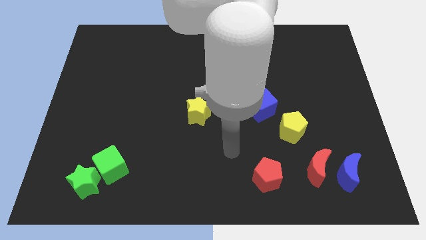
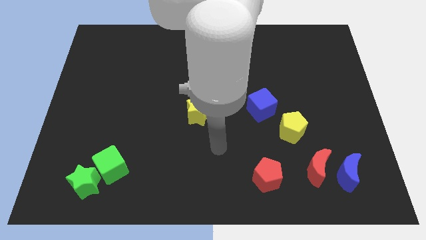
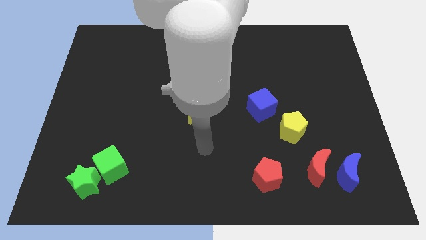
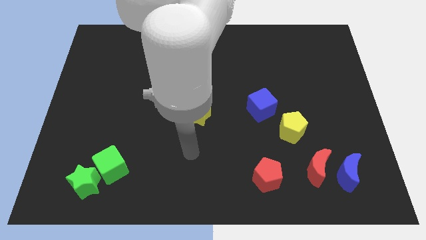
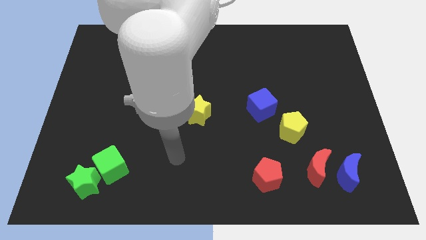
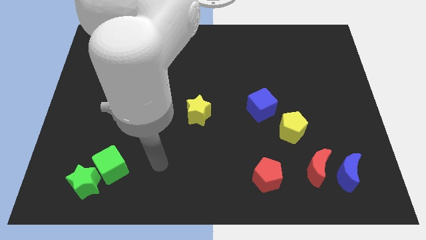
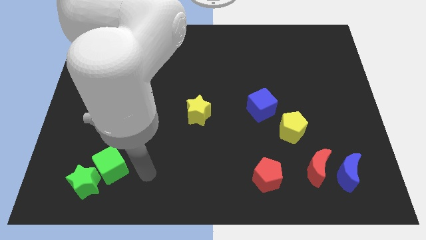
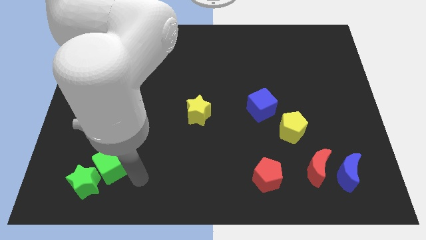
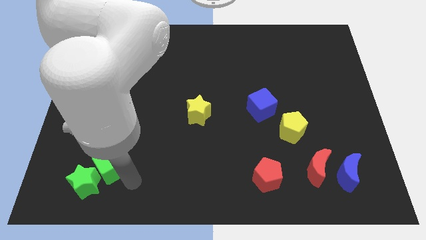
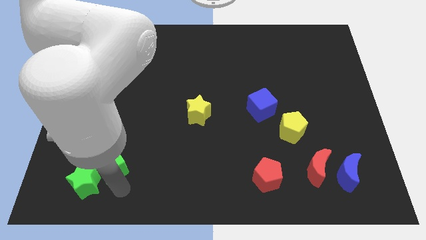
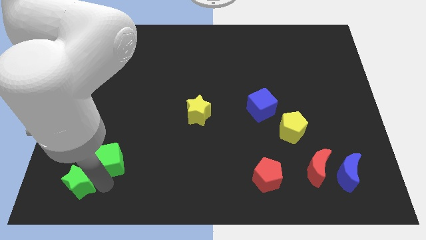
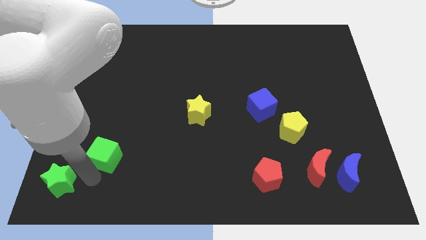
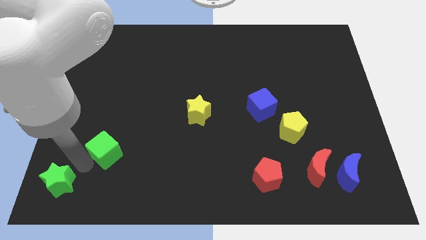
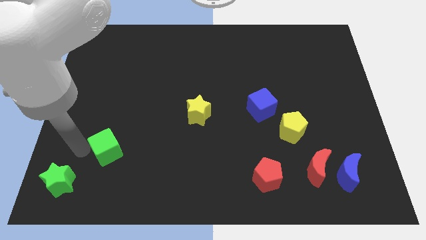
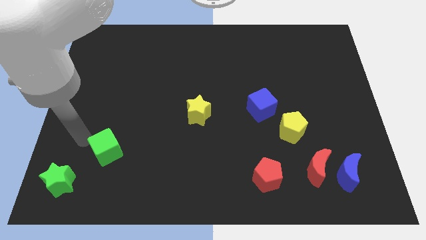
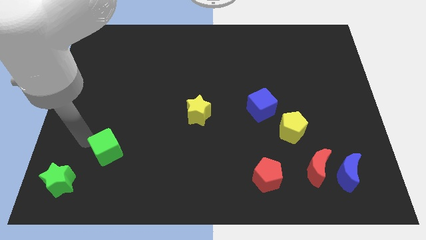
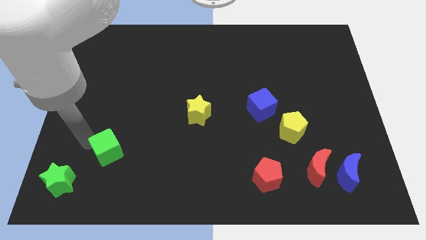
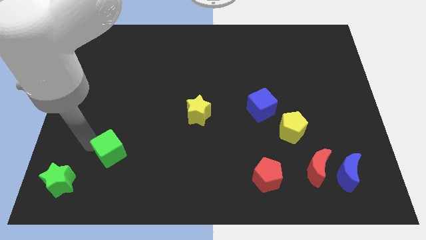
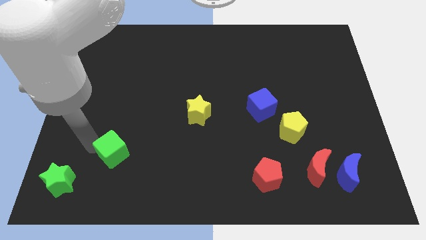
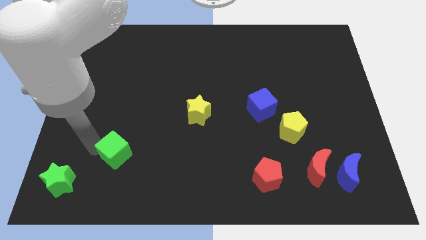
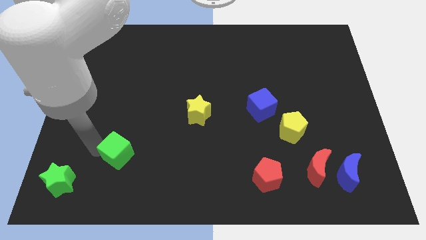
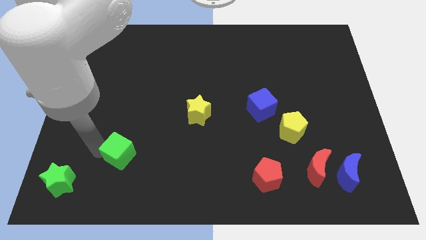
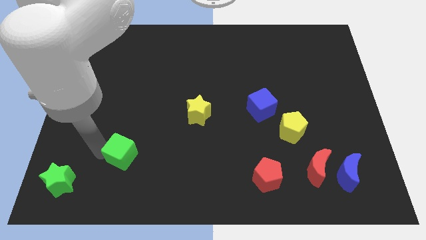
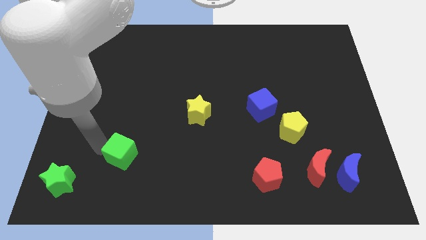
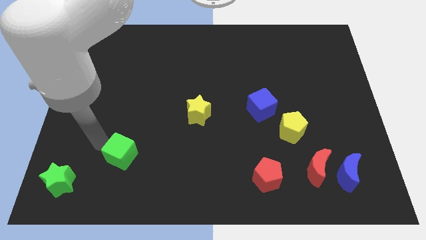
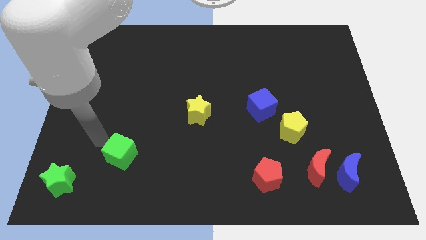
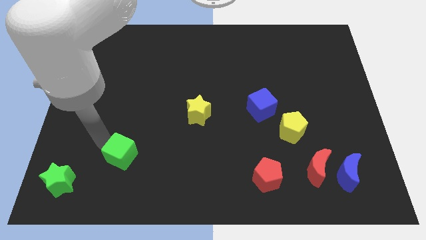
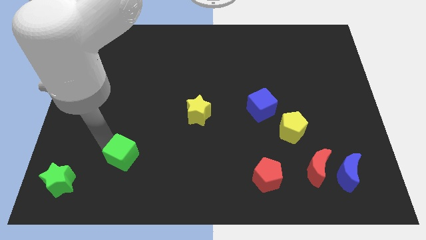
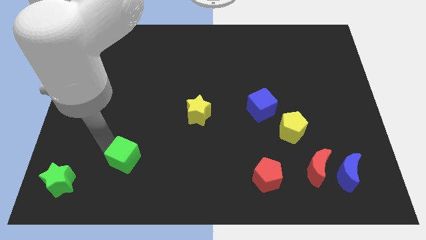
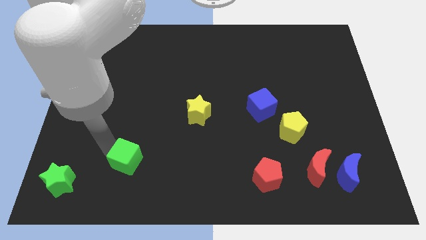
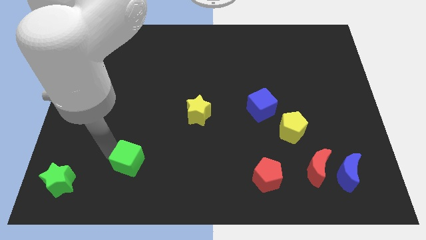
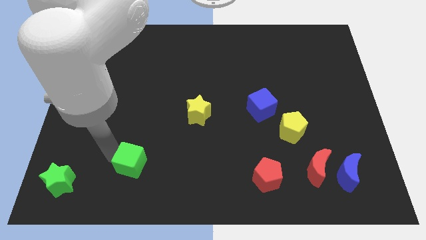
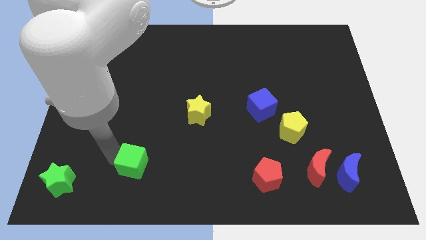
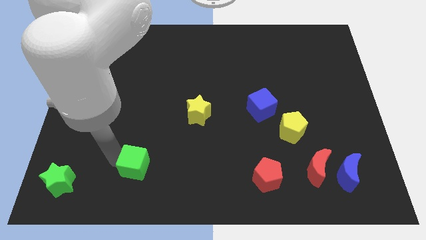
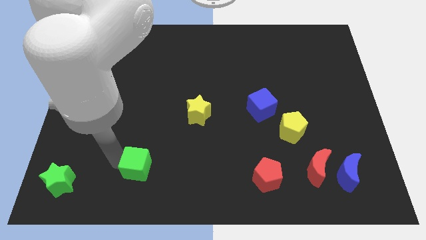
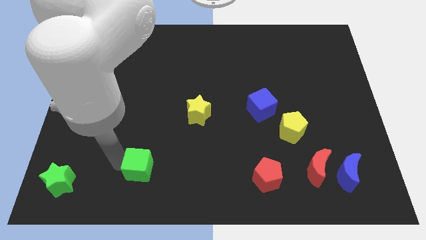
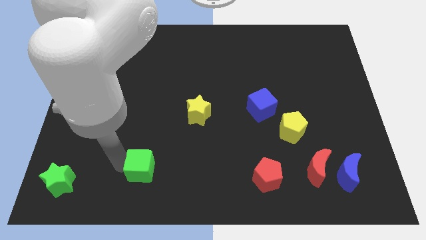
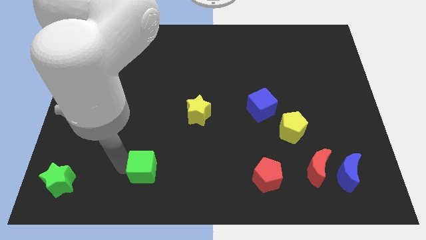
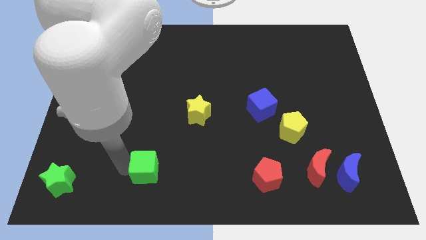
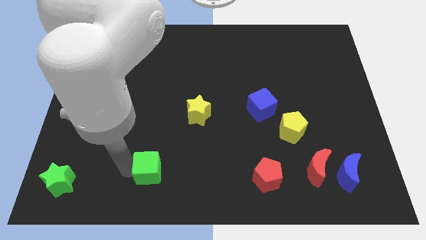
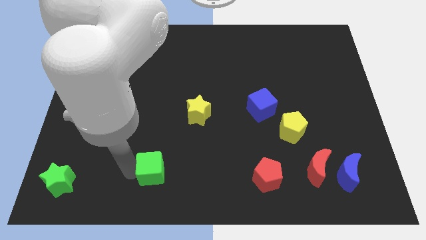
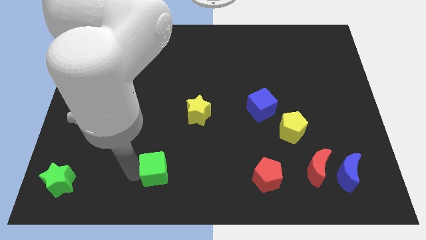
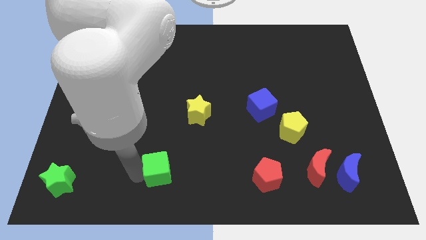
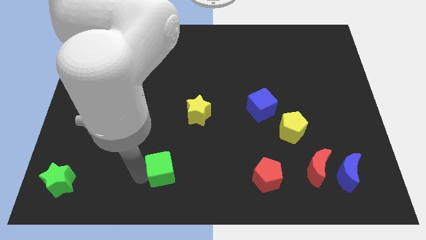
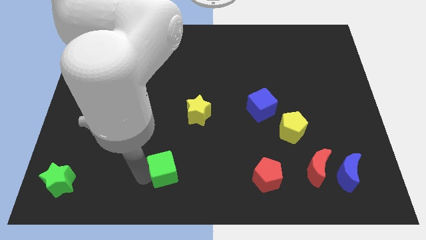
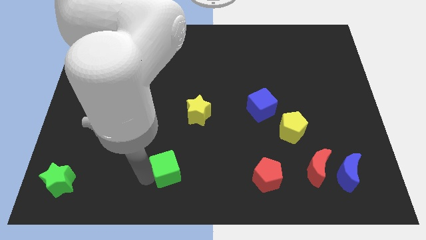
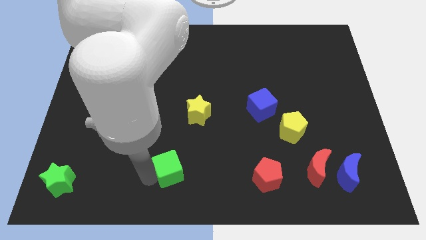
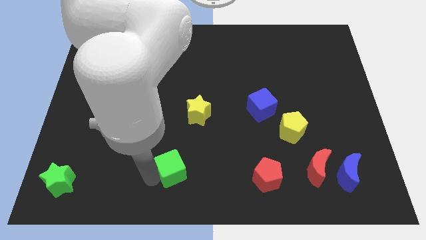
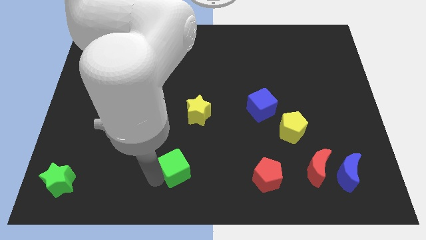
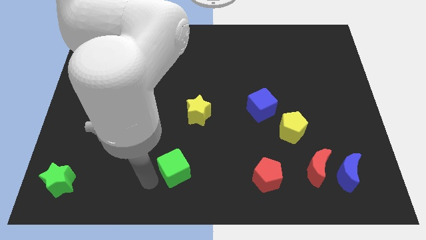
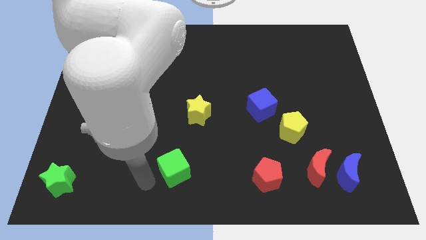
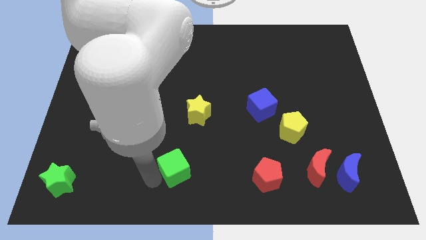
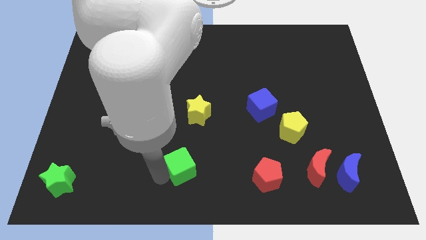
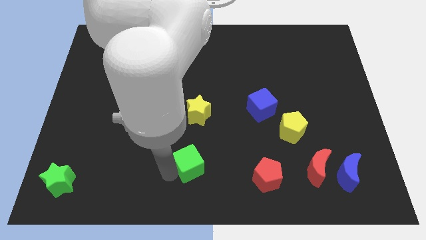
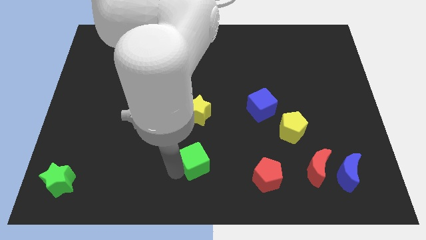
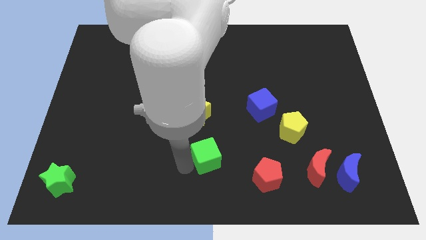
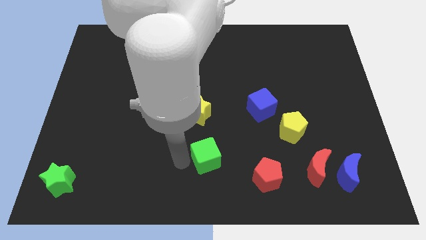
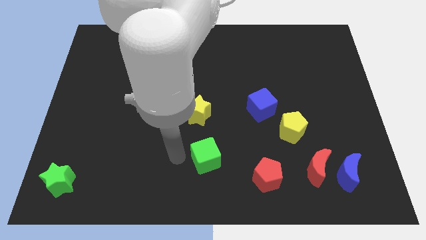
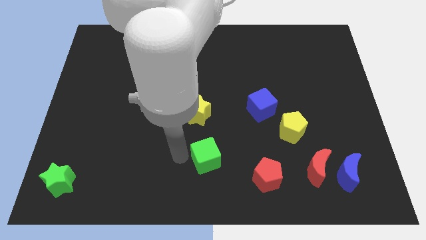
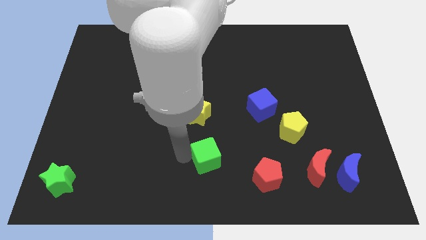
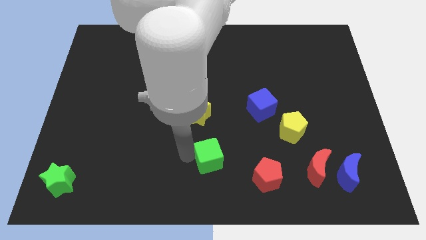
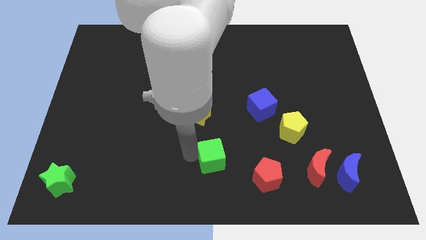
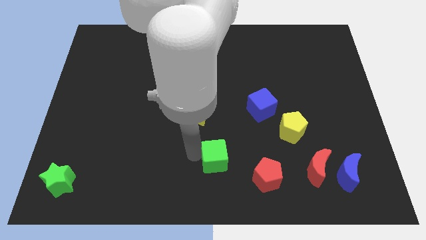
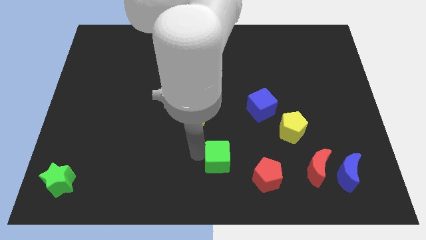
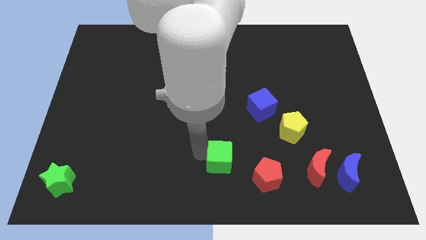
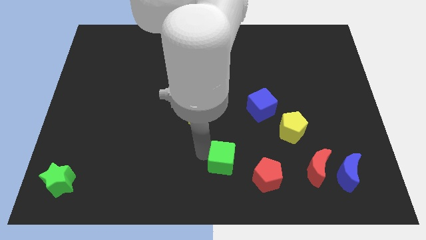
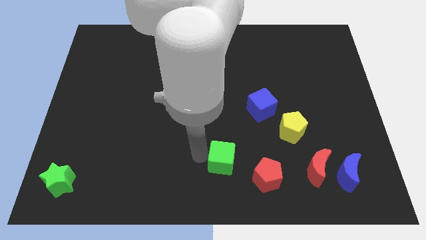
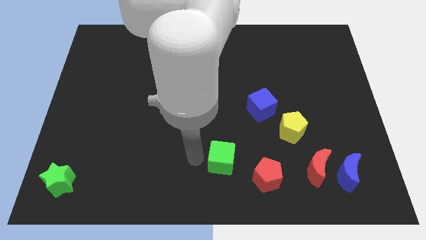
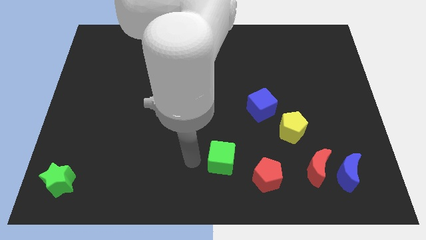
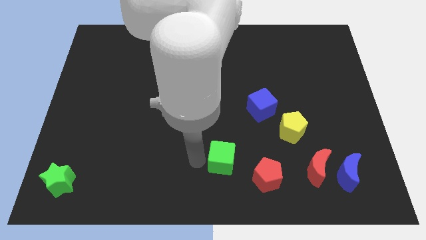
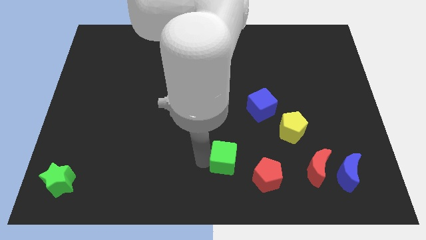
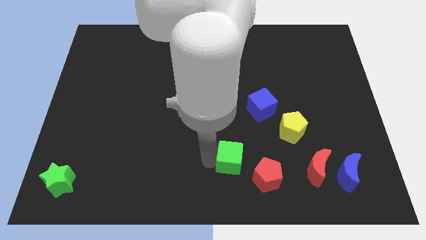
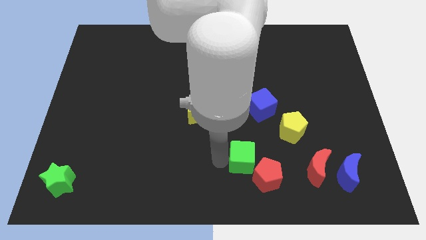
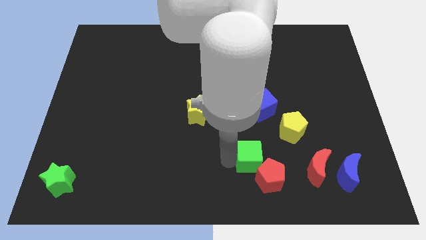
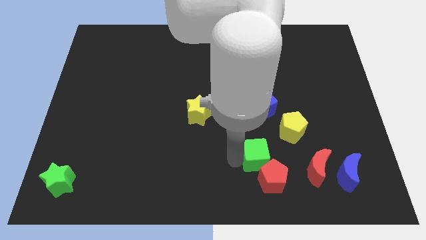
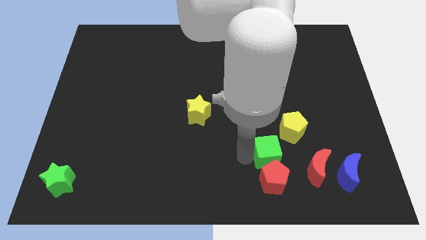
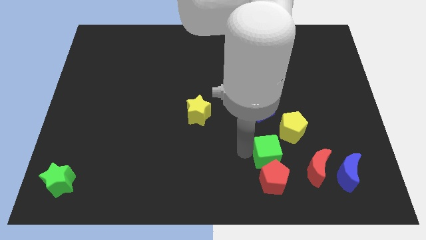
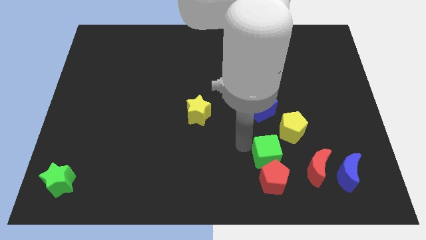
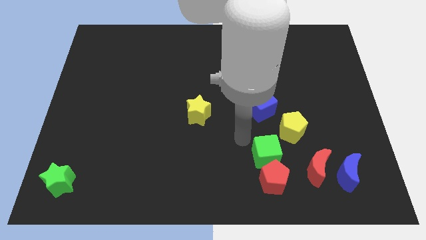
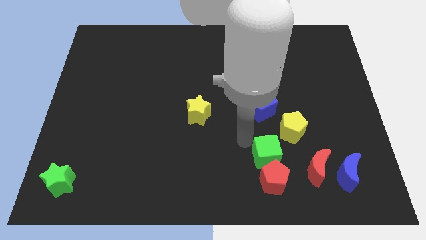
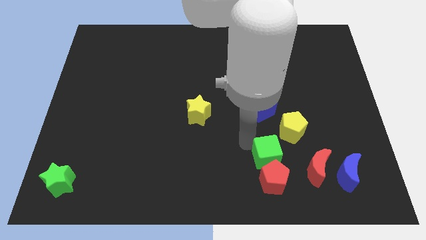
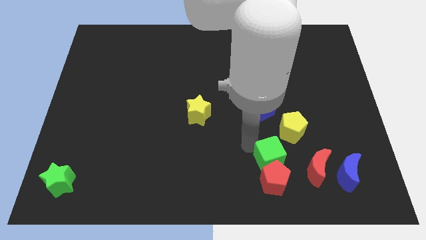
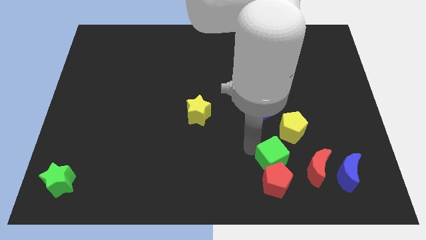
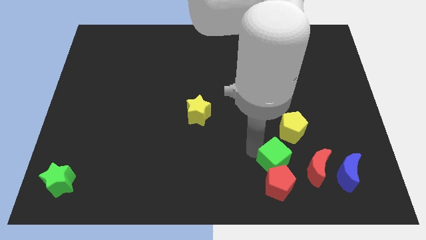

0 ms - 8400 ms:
move the green cube to the left of the blue moon
